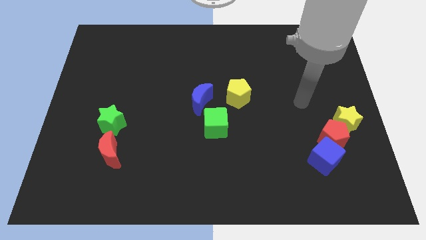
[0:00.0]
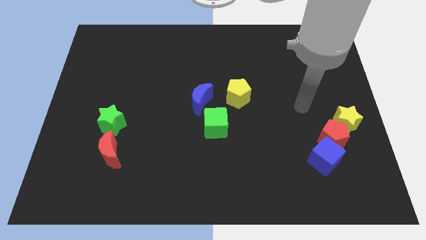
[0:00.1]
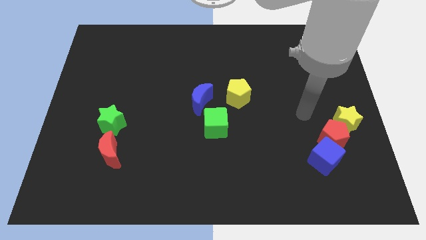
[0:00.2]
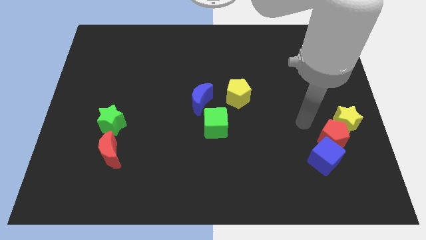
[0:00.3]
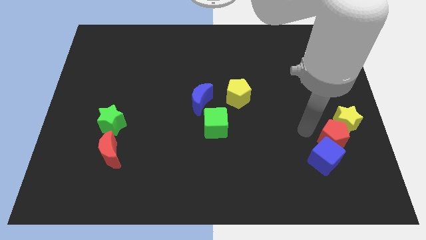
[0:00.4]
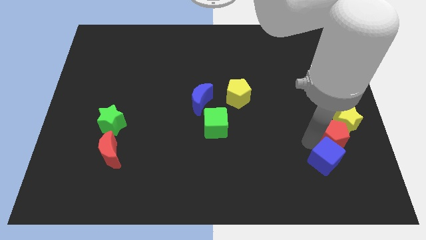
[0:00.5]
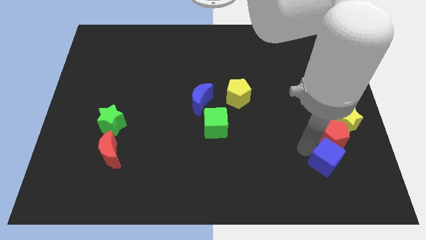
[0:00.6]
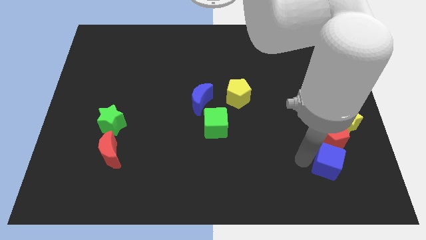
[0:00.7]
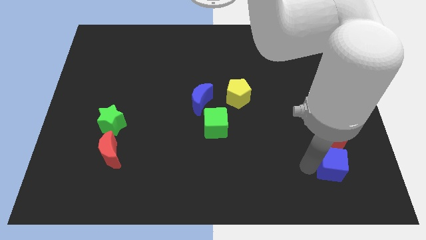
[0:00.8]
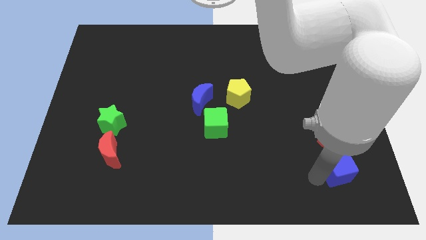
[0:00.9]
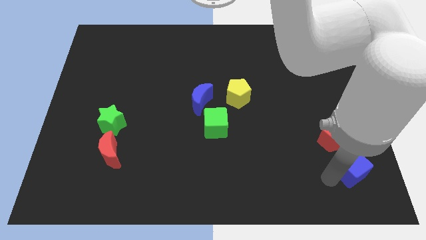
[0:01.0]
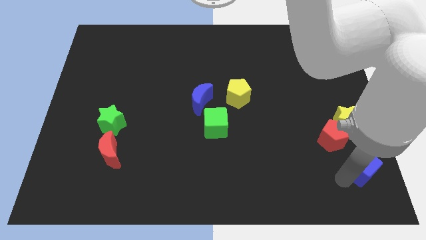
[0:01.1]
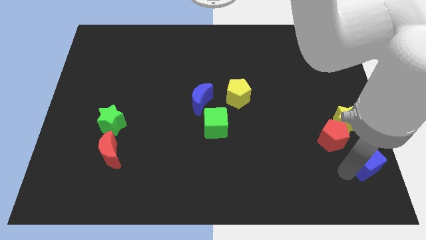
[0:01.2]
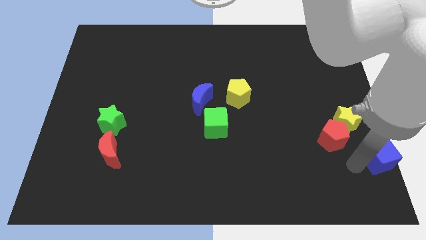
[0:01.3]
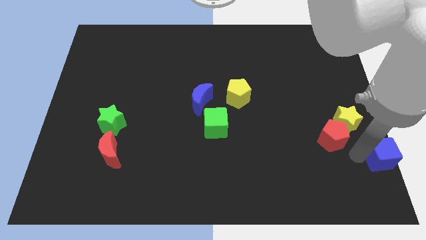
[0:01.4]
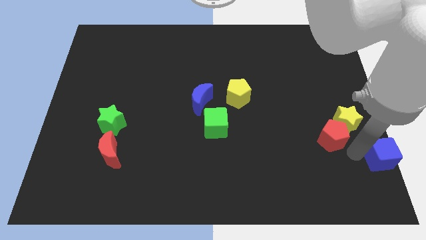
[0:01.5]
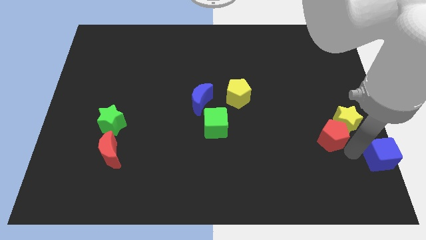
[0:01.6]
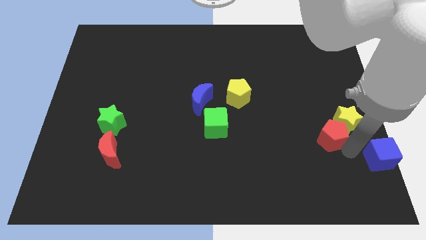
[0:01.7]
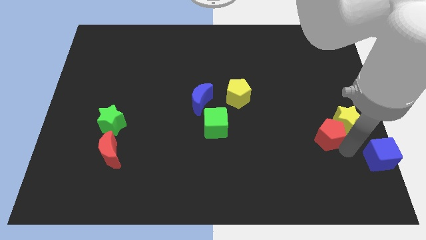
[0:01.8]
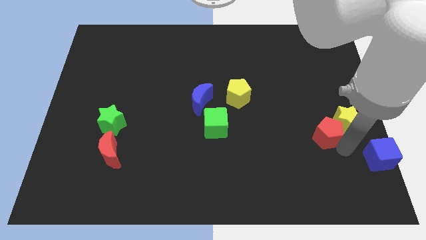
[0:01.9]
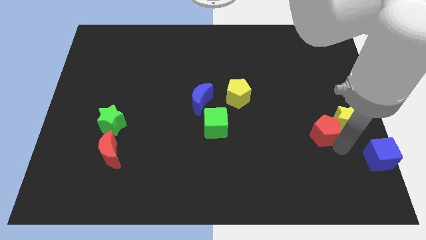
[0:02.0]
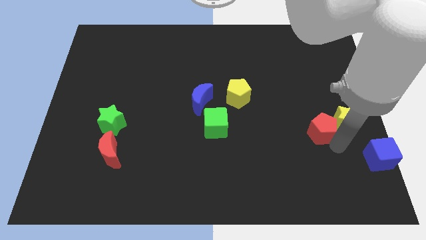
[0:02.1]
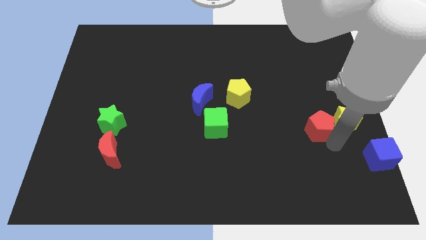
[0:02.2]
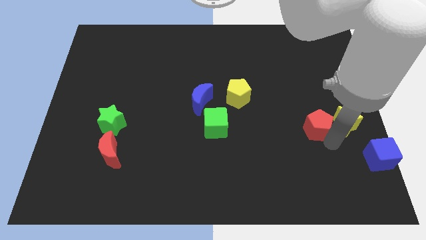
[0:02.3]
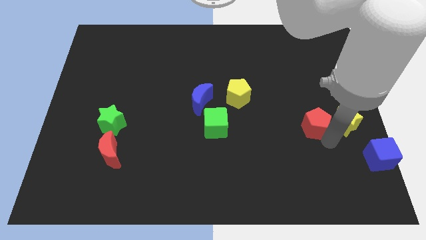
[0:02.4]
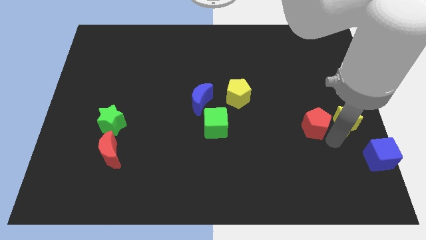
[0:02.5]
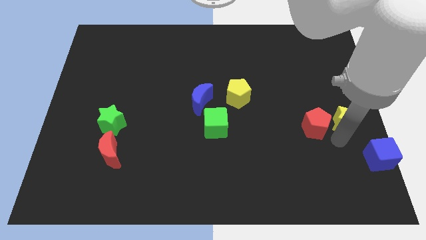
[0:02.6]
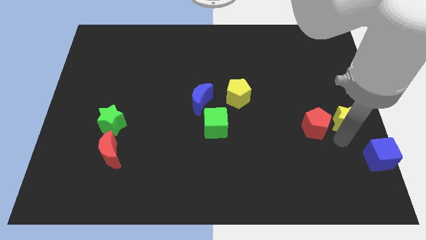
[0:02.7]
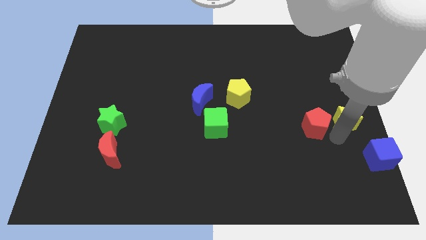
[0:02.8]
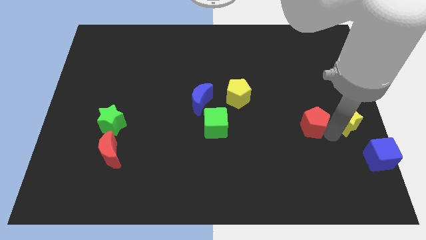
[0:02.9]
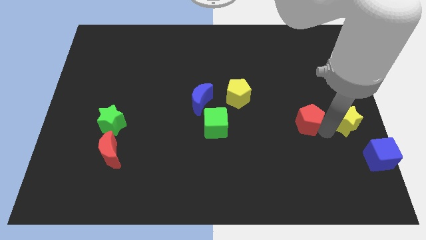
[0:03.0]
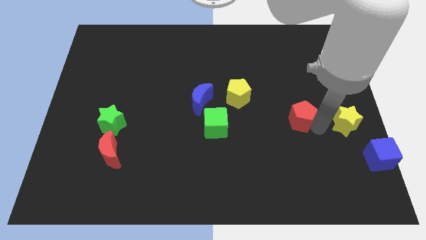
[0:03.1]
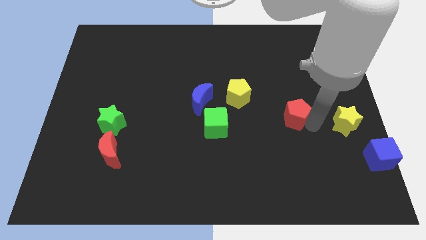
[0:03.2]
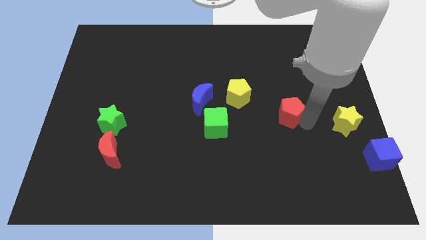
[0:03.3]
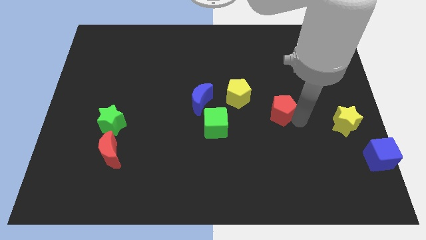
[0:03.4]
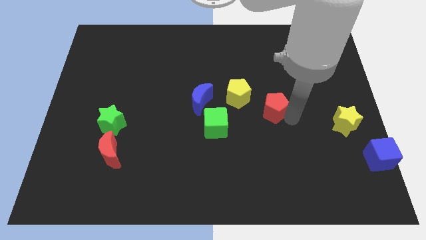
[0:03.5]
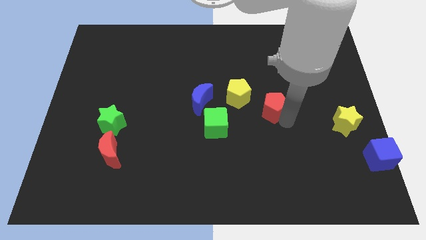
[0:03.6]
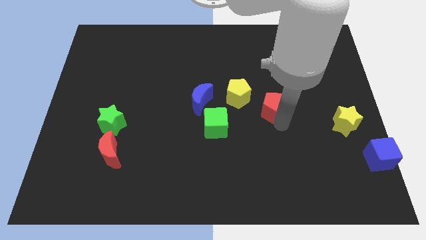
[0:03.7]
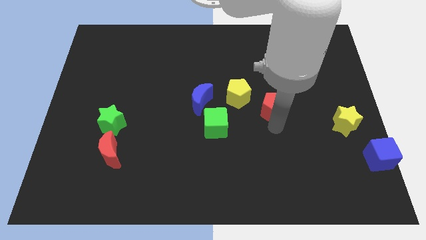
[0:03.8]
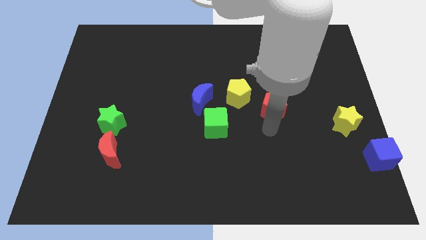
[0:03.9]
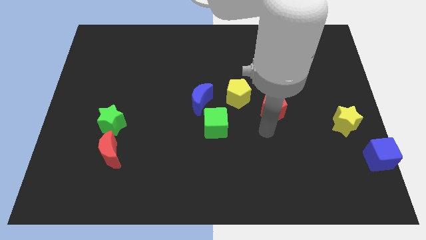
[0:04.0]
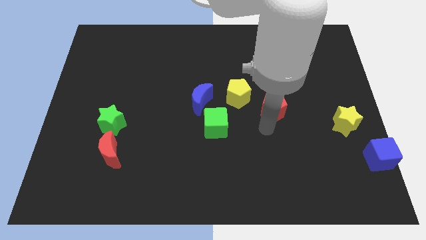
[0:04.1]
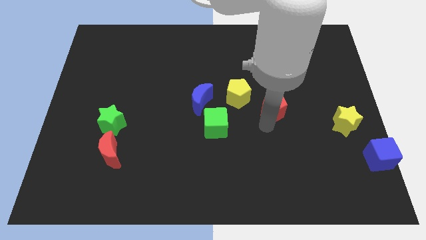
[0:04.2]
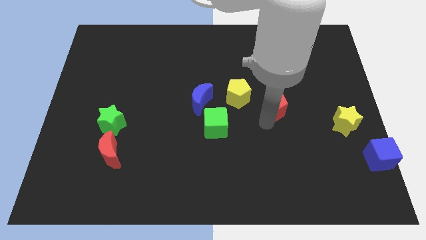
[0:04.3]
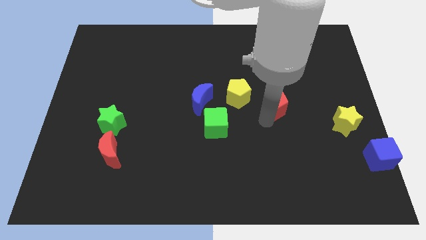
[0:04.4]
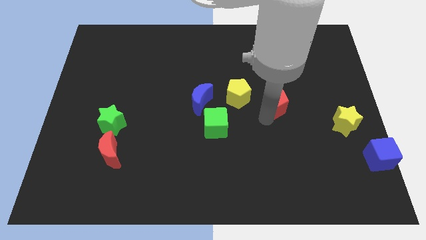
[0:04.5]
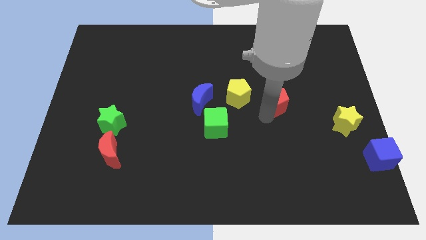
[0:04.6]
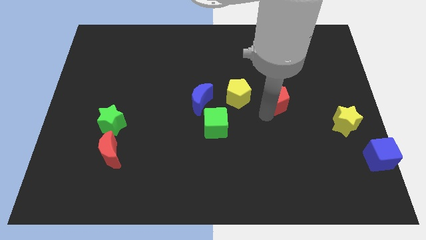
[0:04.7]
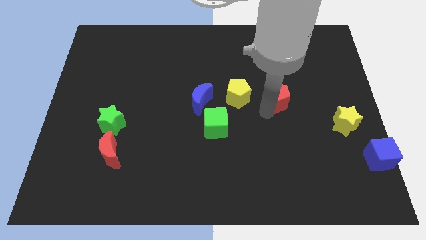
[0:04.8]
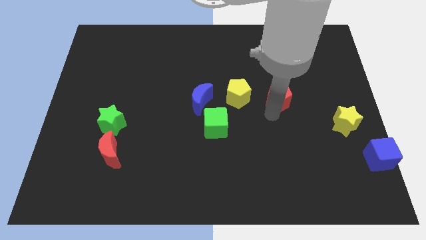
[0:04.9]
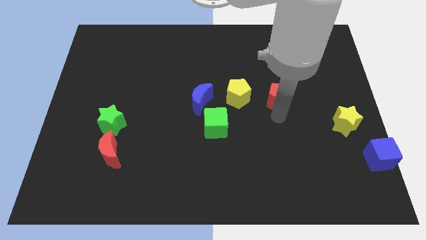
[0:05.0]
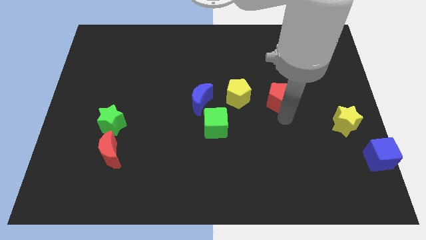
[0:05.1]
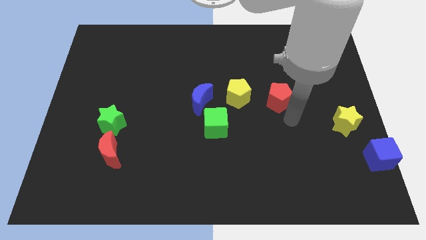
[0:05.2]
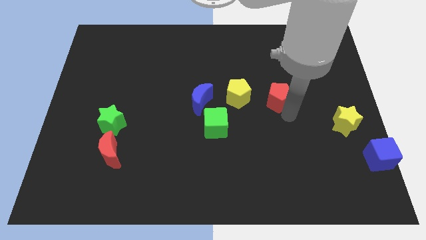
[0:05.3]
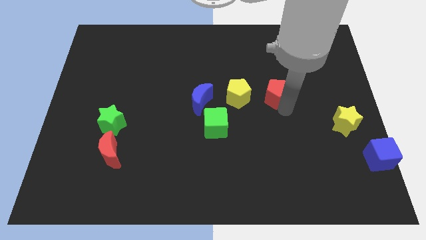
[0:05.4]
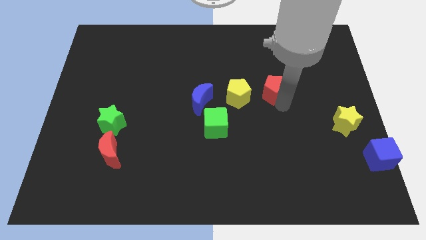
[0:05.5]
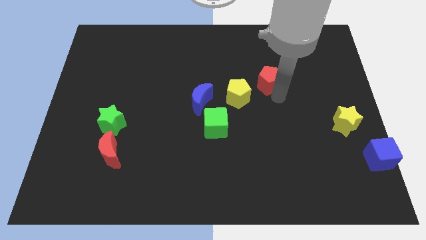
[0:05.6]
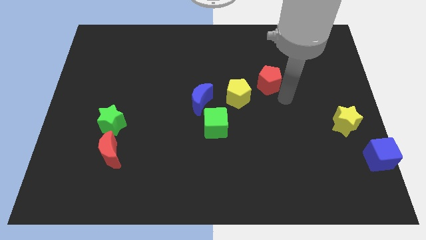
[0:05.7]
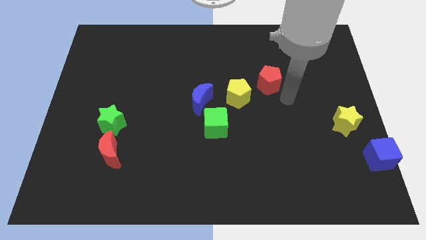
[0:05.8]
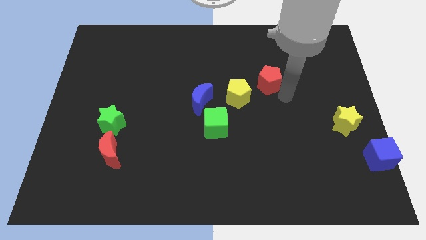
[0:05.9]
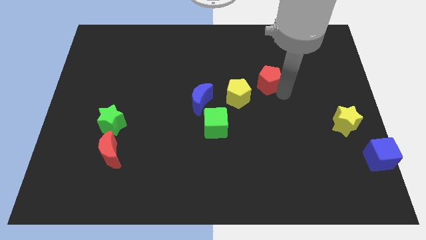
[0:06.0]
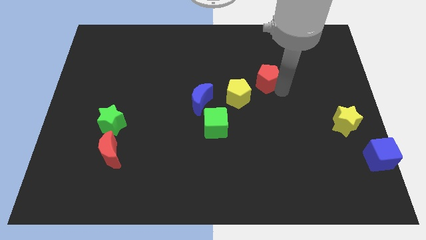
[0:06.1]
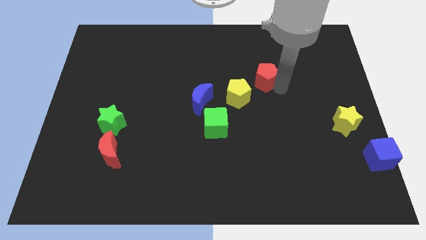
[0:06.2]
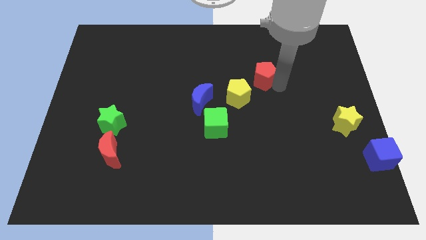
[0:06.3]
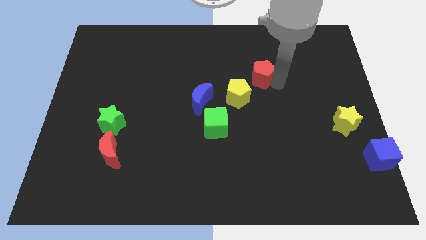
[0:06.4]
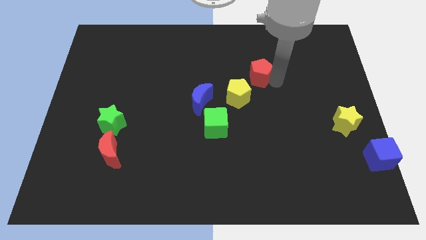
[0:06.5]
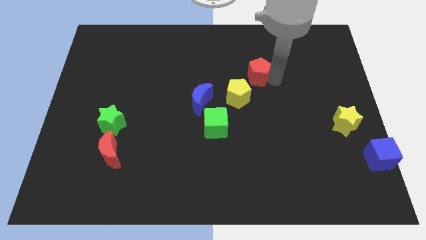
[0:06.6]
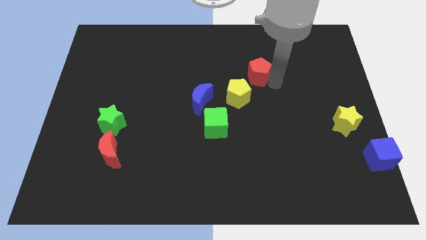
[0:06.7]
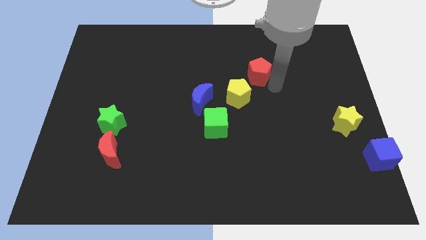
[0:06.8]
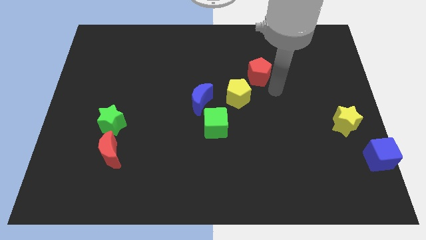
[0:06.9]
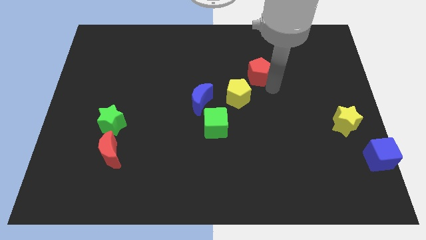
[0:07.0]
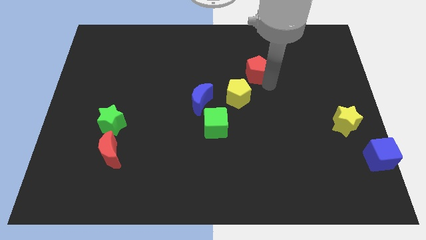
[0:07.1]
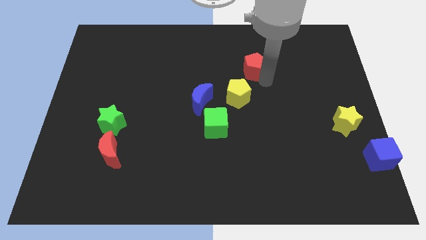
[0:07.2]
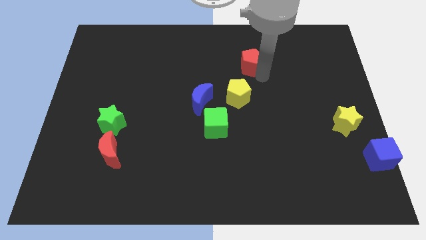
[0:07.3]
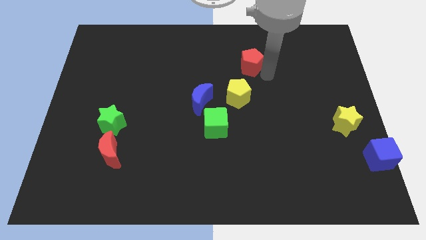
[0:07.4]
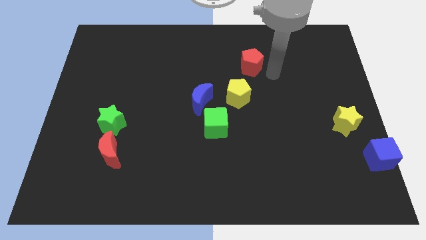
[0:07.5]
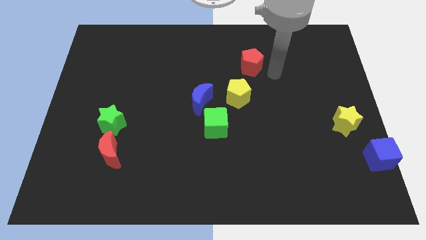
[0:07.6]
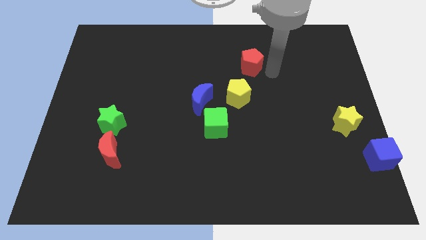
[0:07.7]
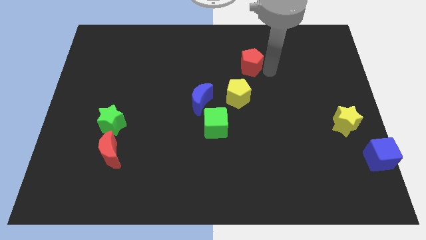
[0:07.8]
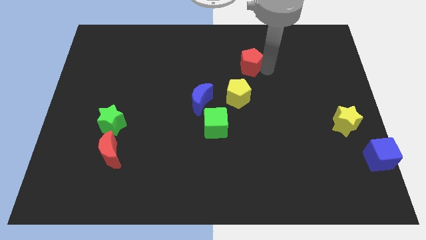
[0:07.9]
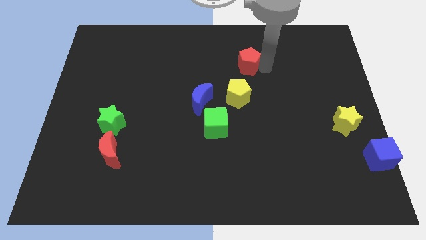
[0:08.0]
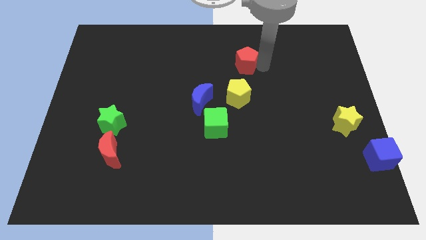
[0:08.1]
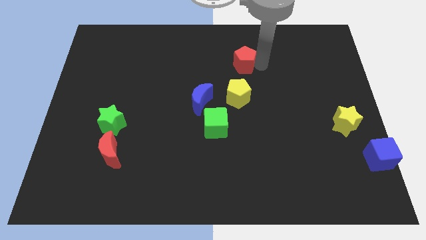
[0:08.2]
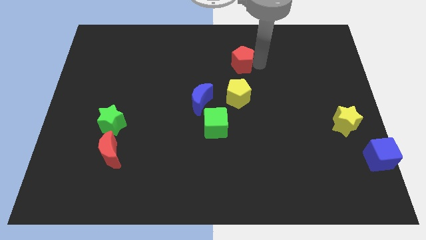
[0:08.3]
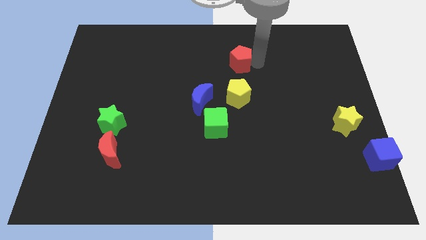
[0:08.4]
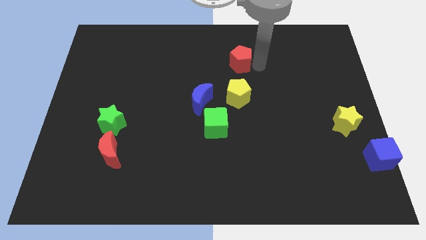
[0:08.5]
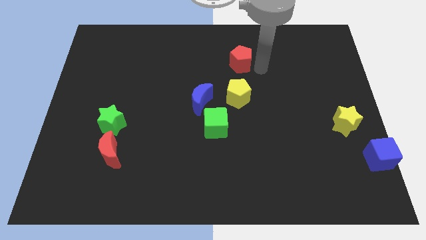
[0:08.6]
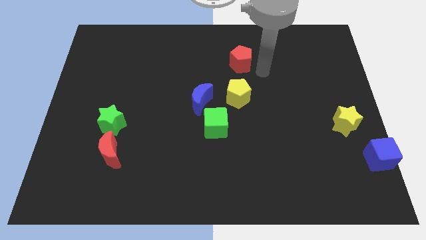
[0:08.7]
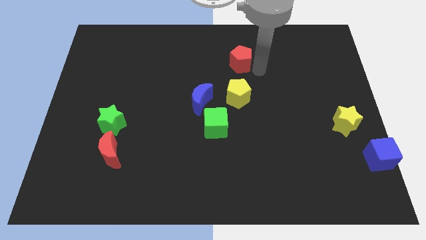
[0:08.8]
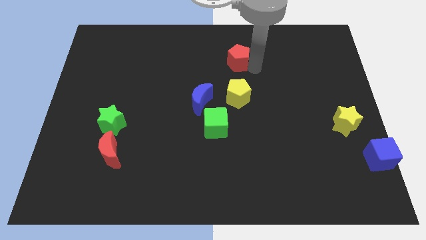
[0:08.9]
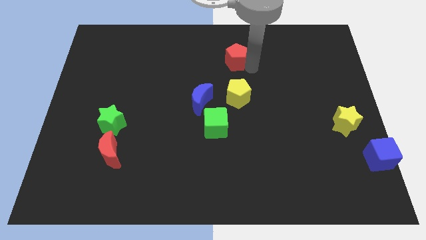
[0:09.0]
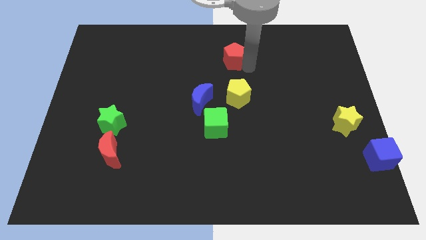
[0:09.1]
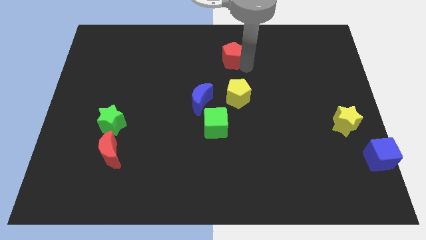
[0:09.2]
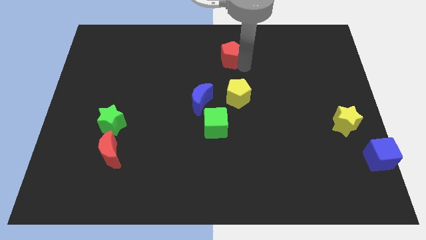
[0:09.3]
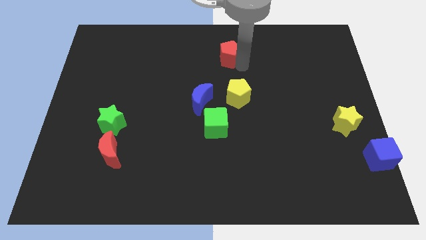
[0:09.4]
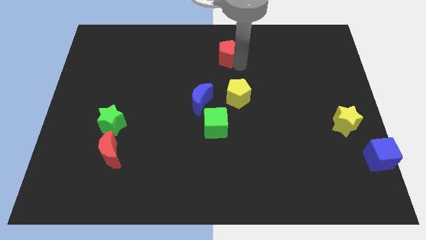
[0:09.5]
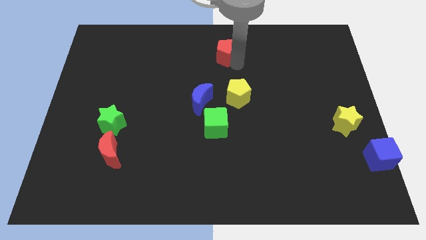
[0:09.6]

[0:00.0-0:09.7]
move the red pentagon to the top side
